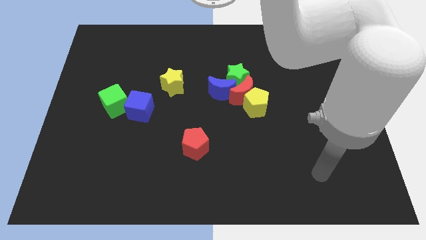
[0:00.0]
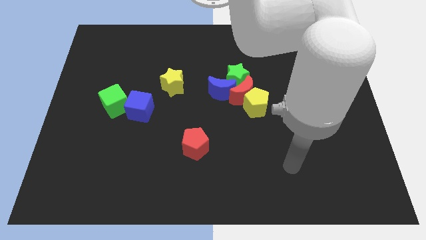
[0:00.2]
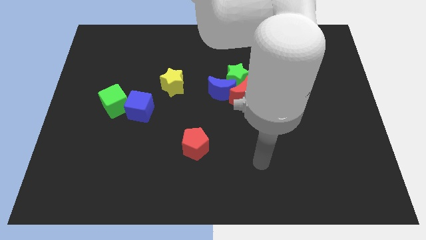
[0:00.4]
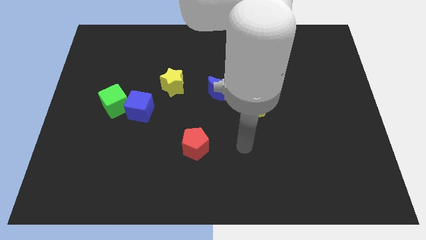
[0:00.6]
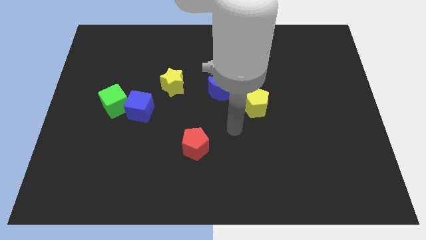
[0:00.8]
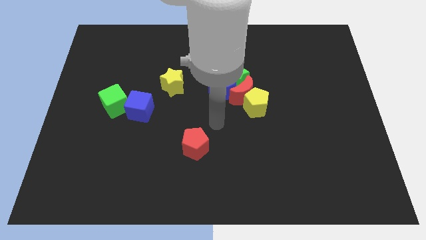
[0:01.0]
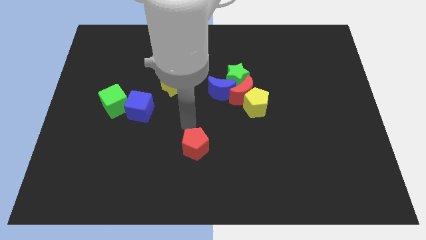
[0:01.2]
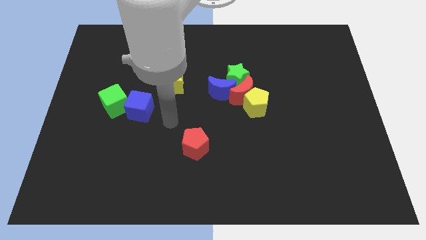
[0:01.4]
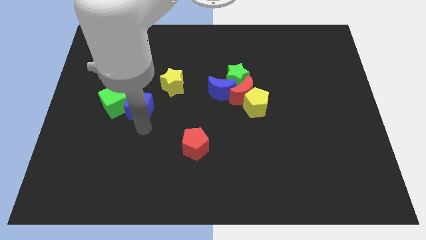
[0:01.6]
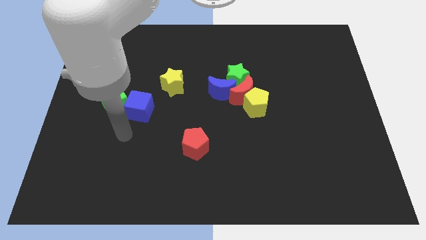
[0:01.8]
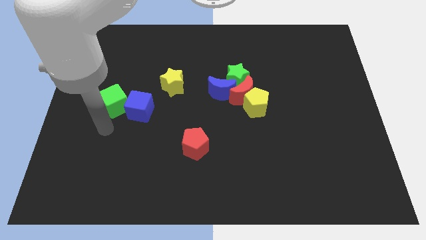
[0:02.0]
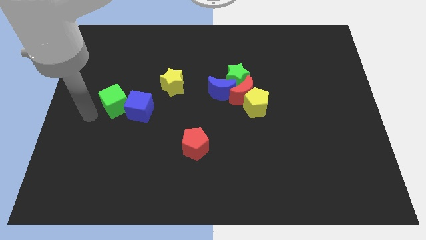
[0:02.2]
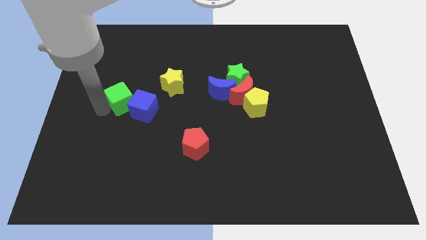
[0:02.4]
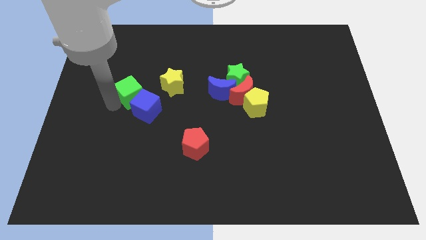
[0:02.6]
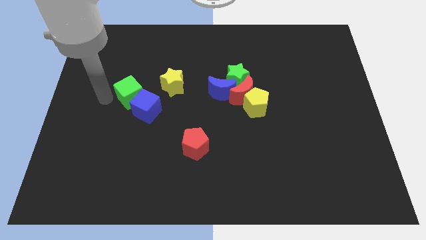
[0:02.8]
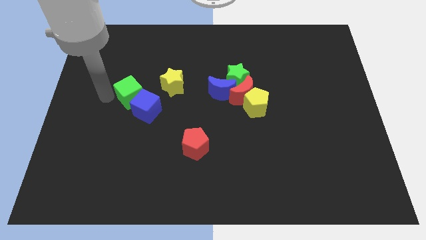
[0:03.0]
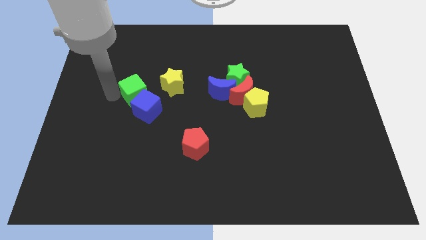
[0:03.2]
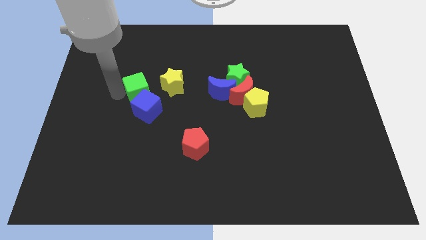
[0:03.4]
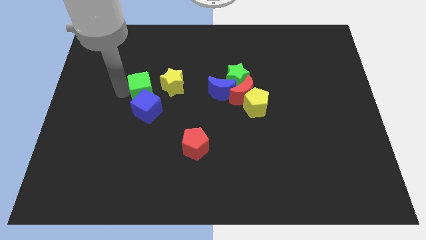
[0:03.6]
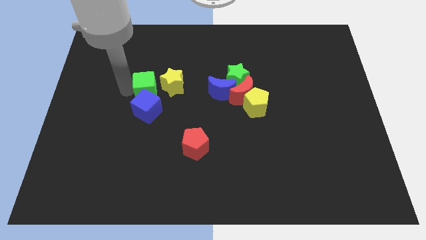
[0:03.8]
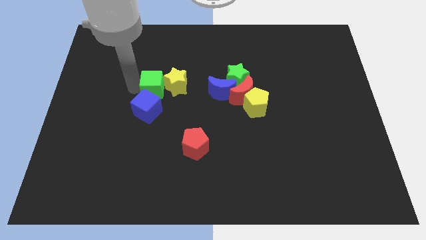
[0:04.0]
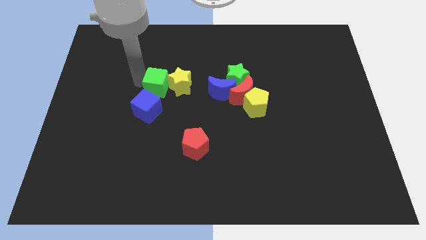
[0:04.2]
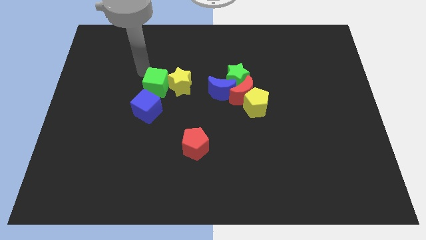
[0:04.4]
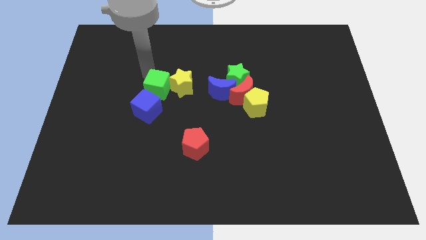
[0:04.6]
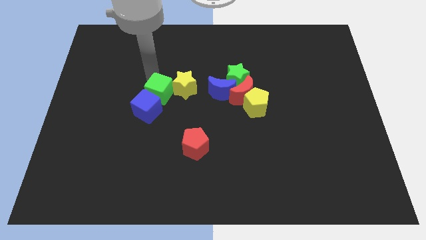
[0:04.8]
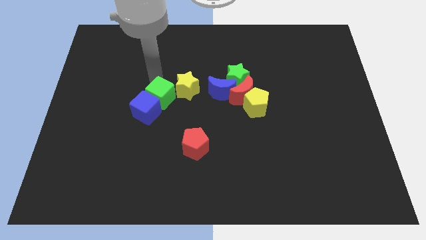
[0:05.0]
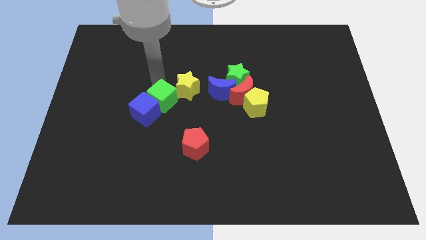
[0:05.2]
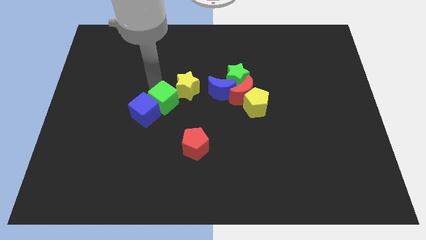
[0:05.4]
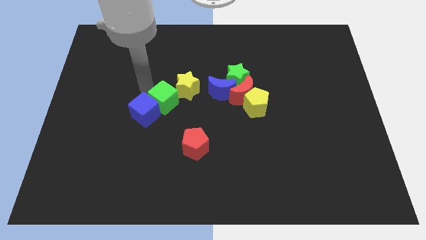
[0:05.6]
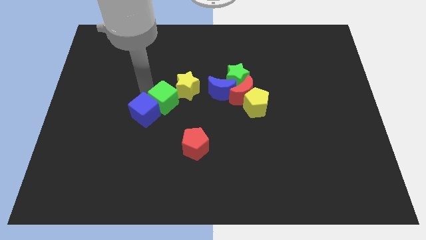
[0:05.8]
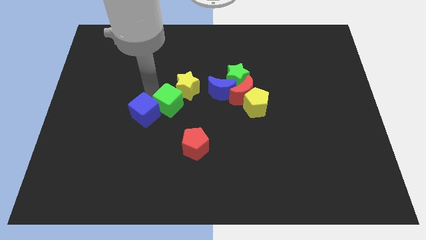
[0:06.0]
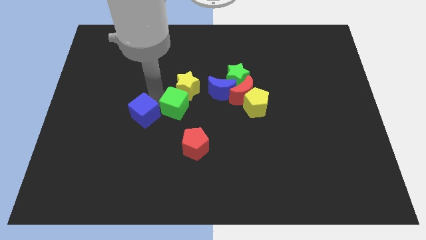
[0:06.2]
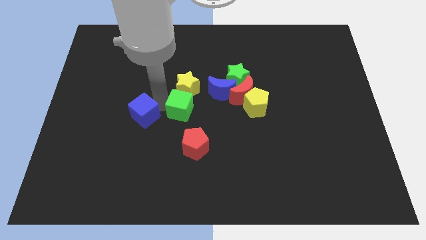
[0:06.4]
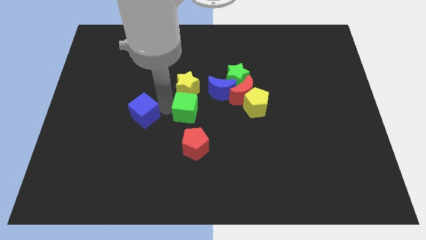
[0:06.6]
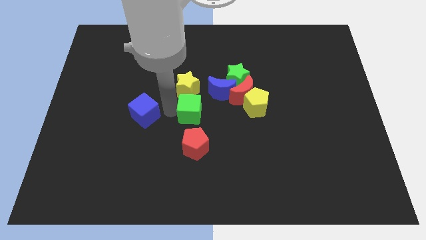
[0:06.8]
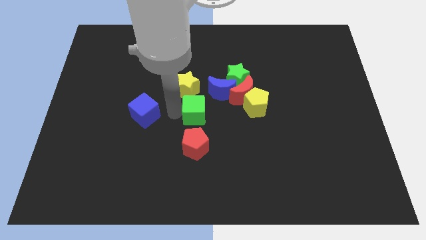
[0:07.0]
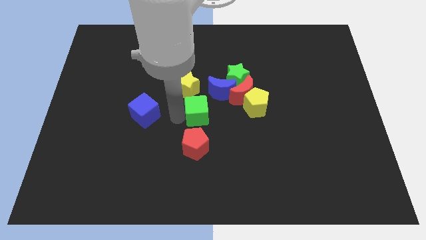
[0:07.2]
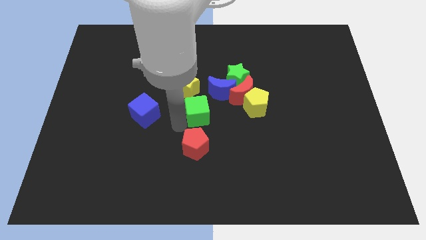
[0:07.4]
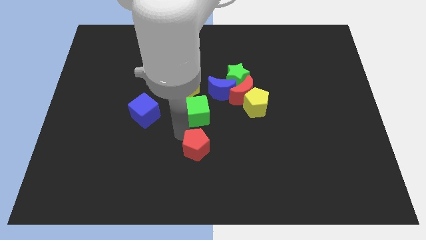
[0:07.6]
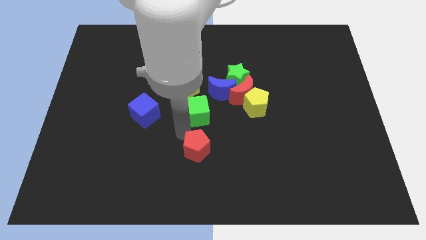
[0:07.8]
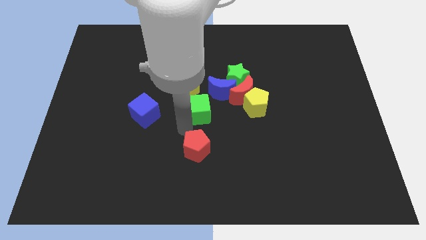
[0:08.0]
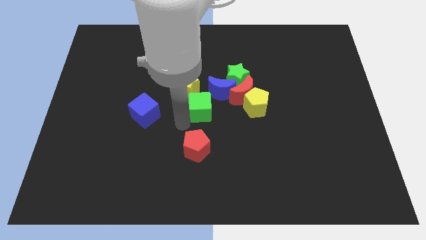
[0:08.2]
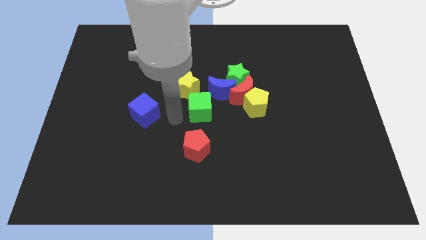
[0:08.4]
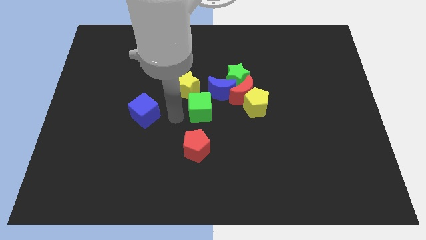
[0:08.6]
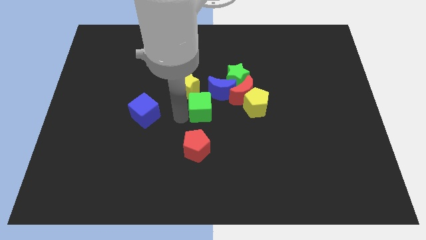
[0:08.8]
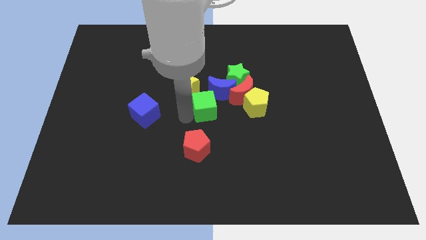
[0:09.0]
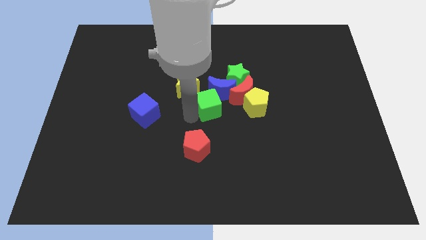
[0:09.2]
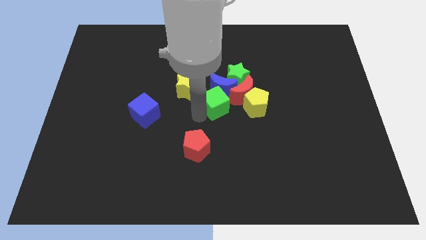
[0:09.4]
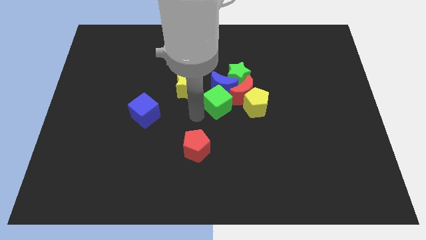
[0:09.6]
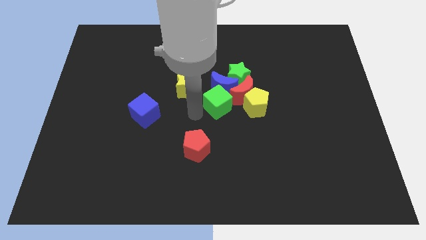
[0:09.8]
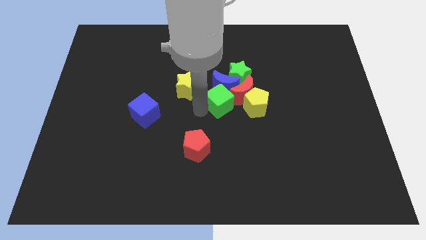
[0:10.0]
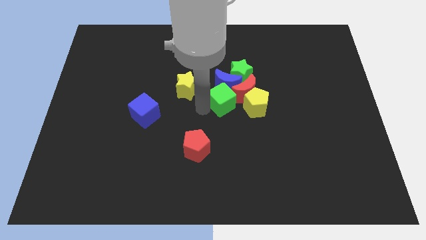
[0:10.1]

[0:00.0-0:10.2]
slide the green cube close to the red moon

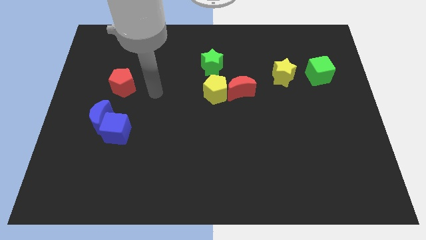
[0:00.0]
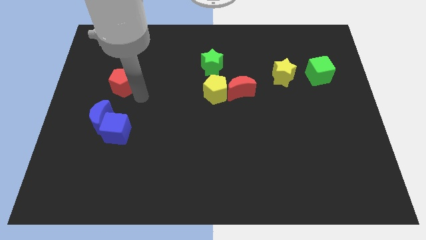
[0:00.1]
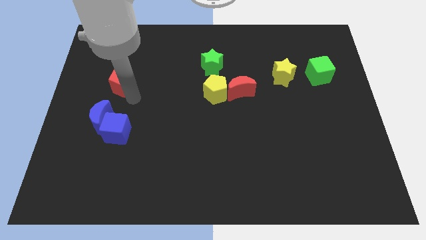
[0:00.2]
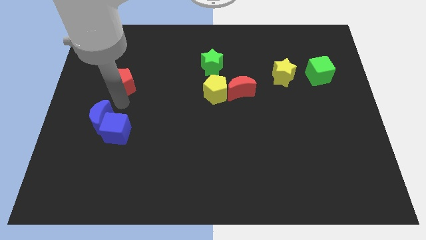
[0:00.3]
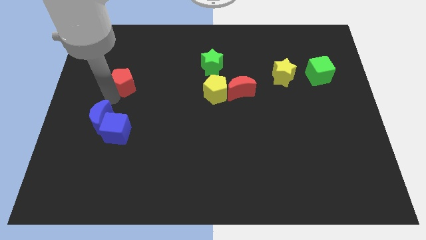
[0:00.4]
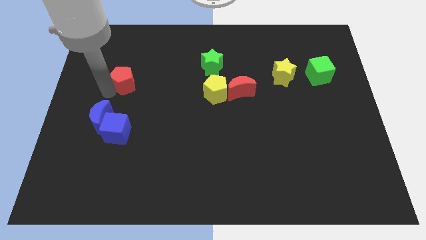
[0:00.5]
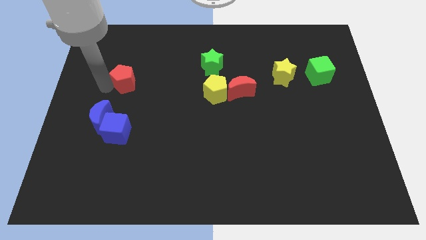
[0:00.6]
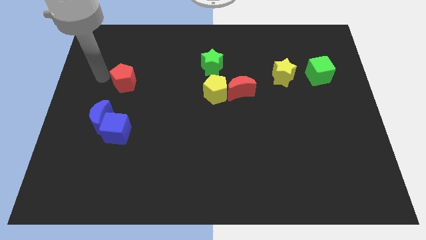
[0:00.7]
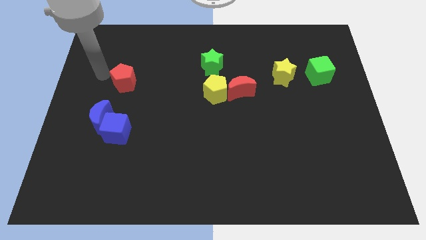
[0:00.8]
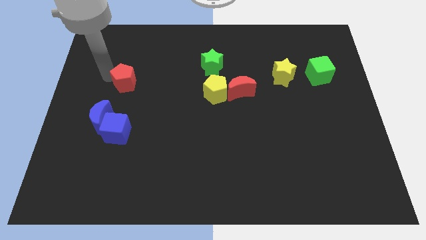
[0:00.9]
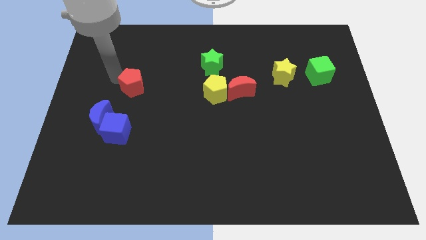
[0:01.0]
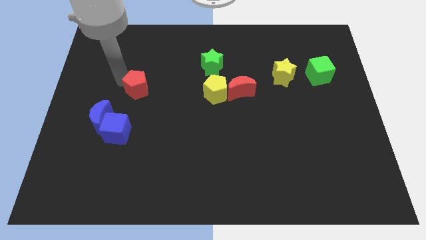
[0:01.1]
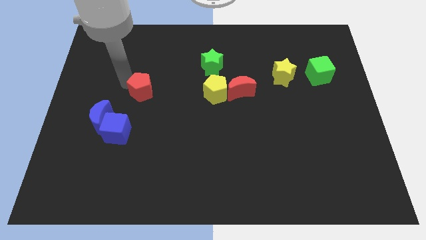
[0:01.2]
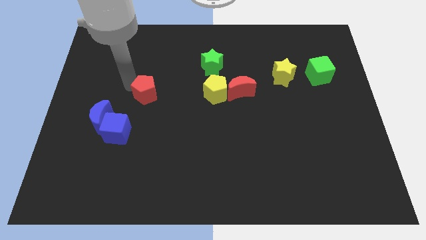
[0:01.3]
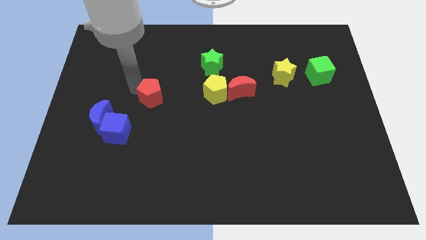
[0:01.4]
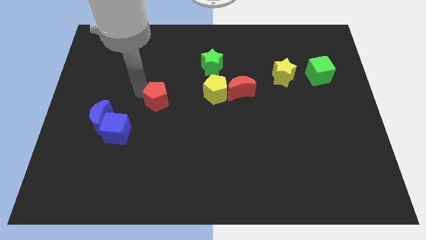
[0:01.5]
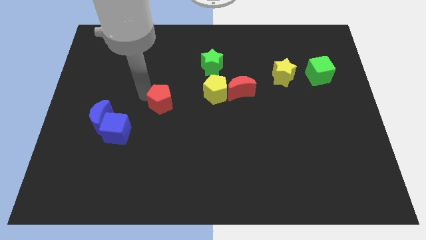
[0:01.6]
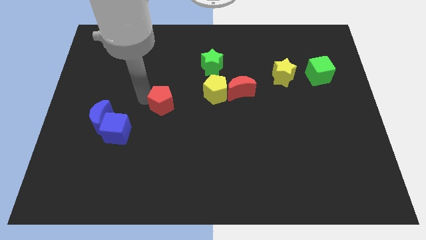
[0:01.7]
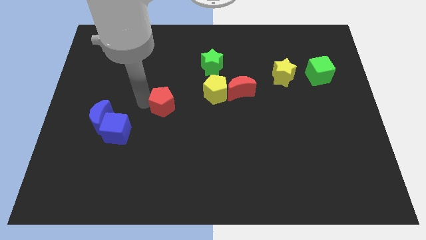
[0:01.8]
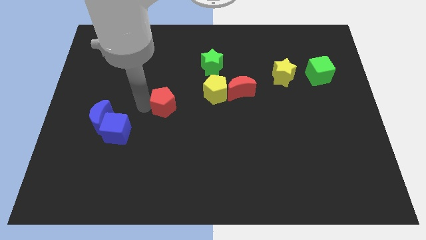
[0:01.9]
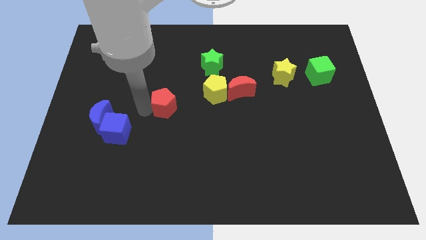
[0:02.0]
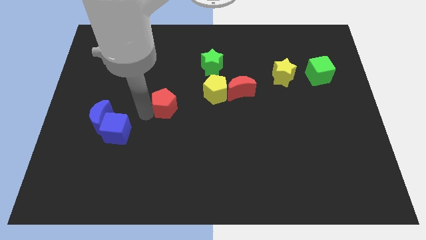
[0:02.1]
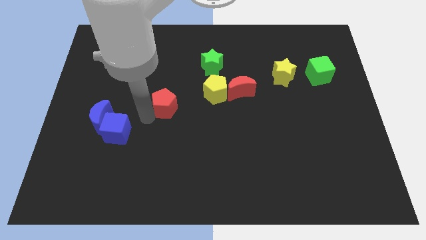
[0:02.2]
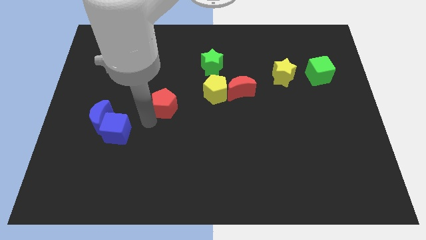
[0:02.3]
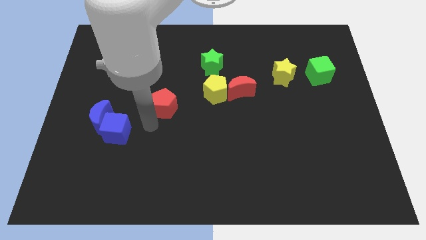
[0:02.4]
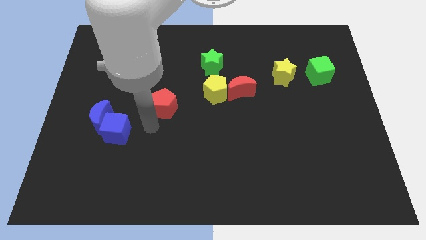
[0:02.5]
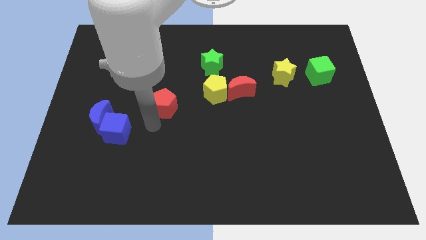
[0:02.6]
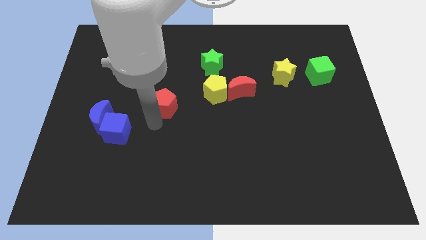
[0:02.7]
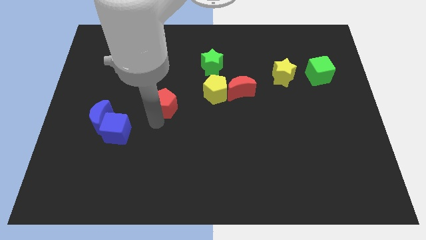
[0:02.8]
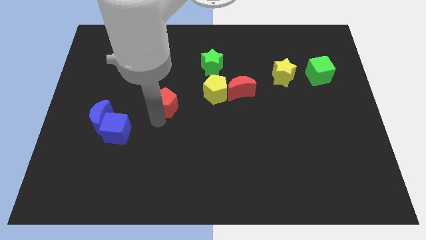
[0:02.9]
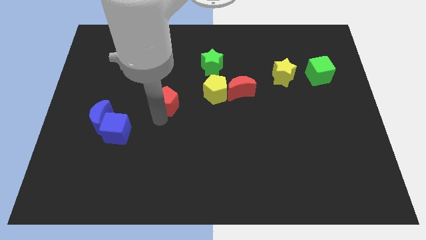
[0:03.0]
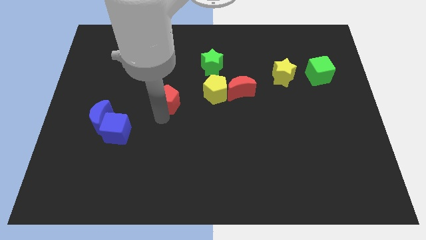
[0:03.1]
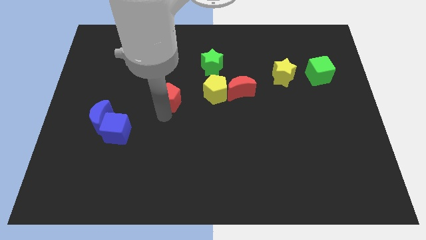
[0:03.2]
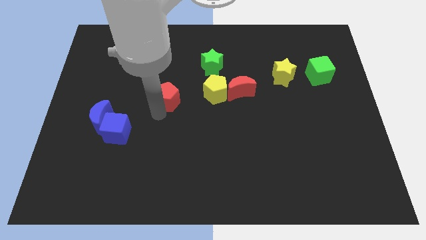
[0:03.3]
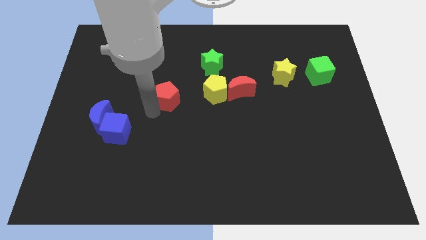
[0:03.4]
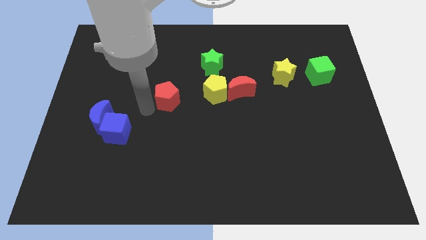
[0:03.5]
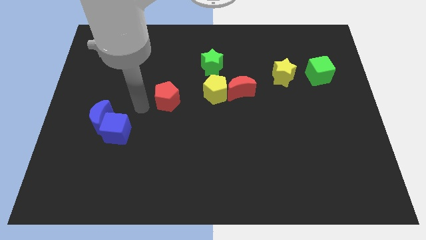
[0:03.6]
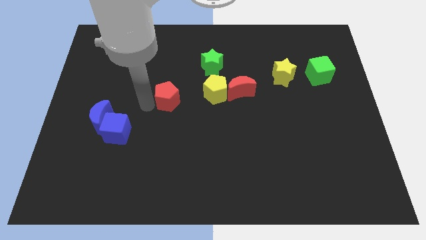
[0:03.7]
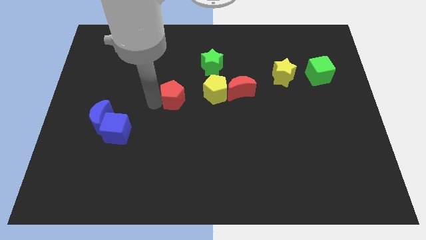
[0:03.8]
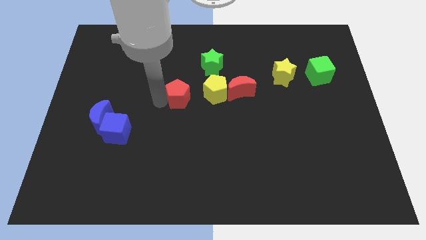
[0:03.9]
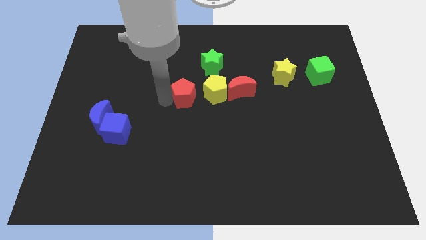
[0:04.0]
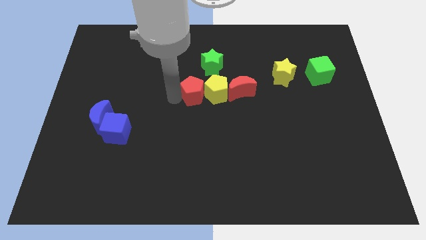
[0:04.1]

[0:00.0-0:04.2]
push the red pentagon to the yellow pentagon
